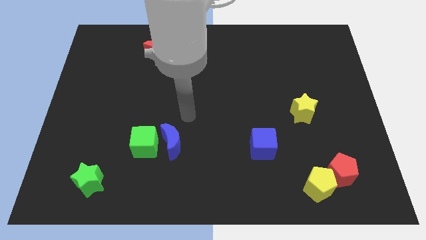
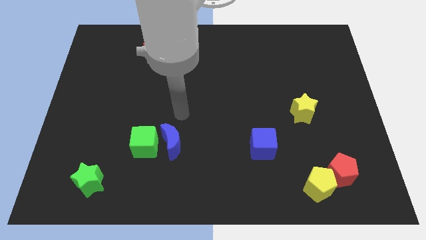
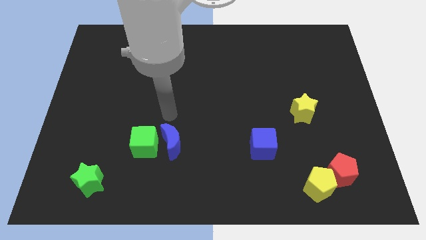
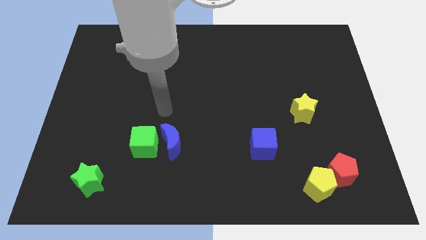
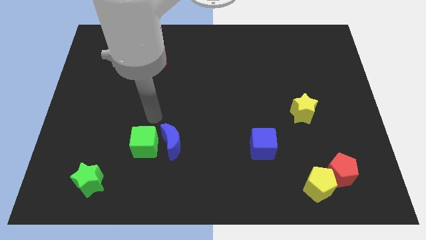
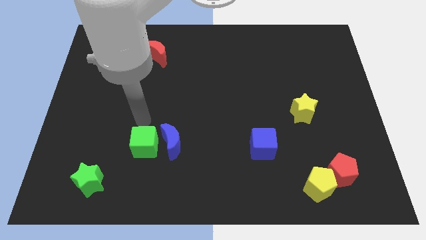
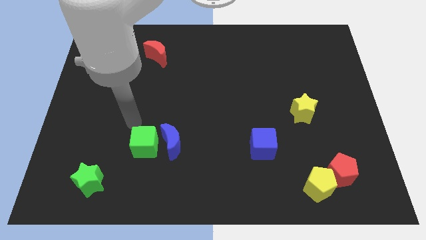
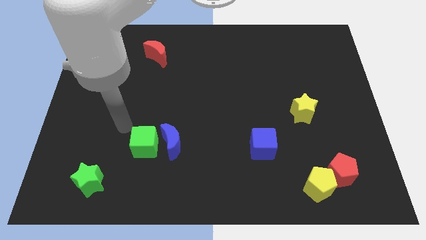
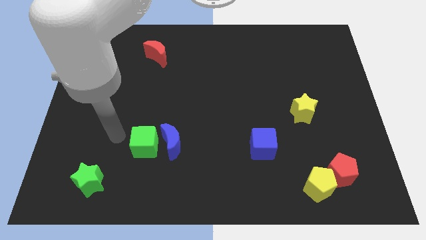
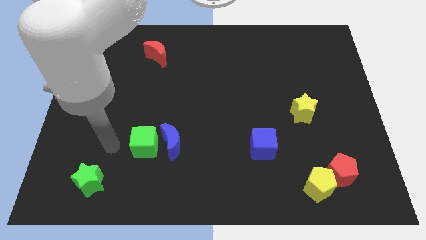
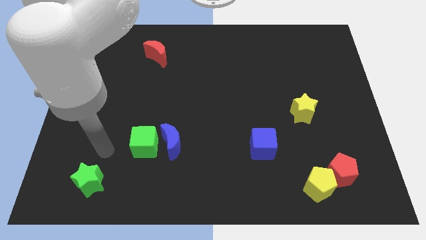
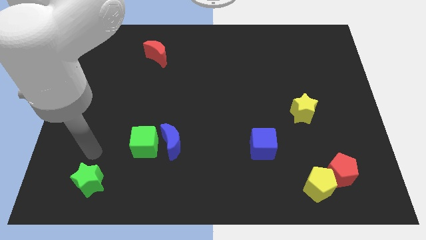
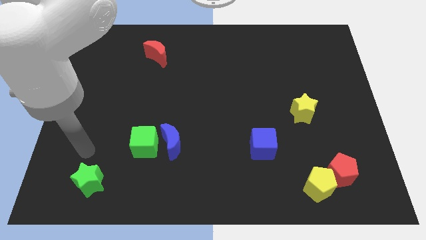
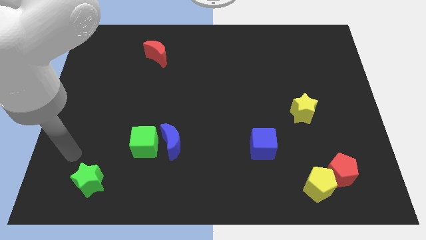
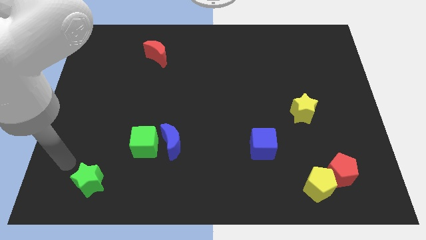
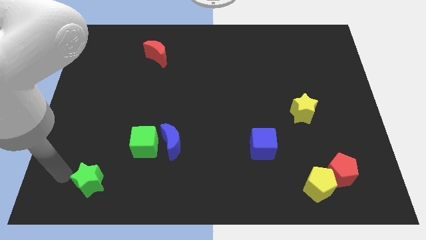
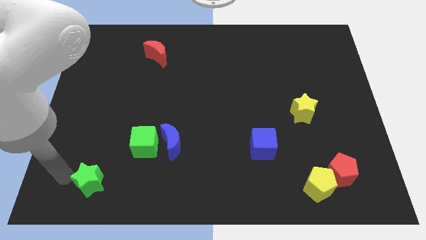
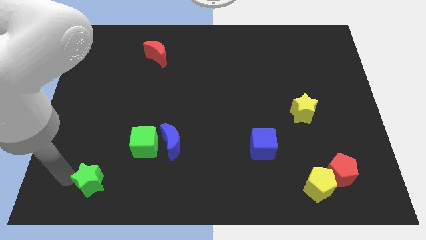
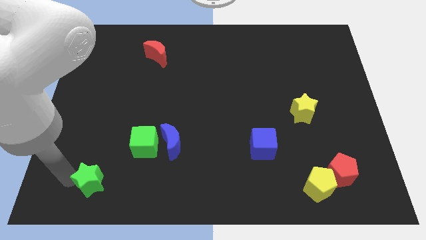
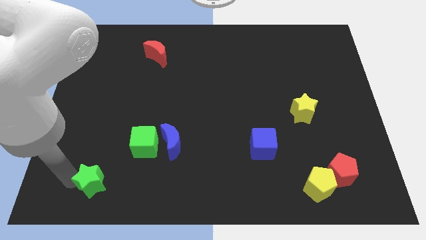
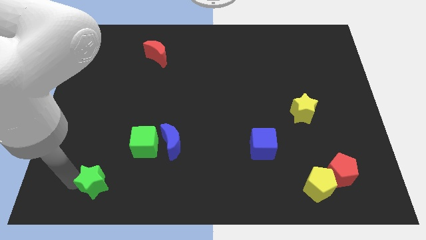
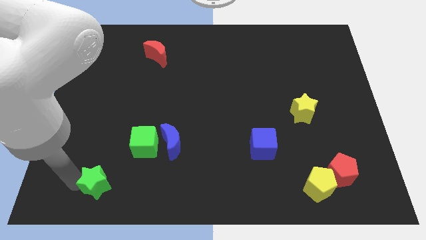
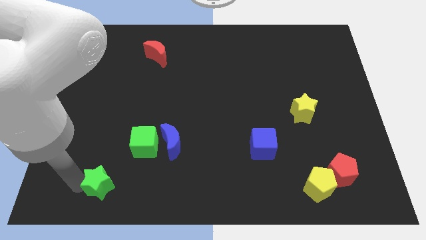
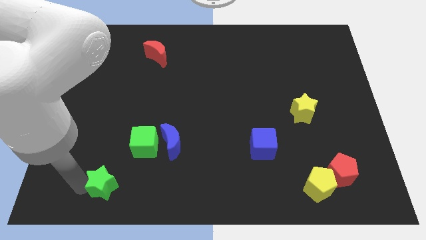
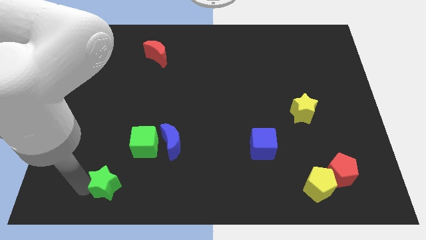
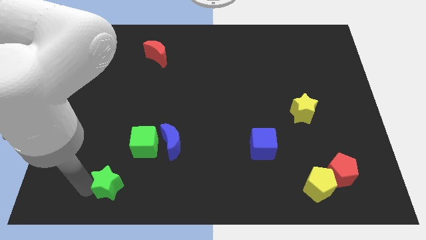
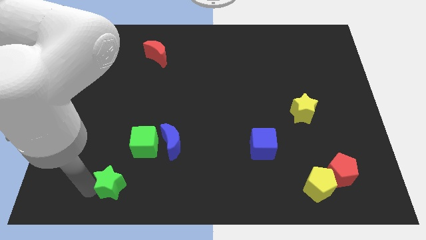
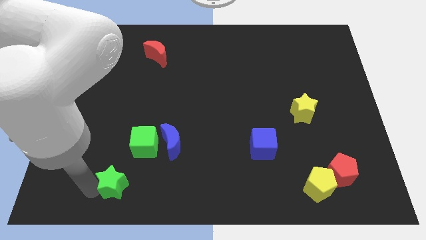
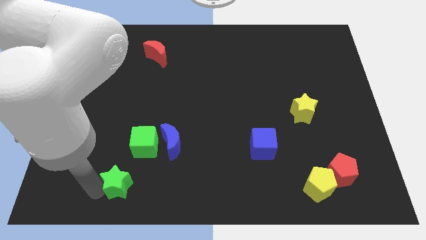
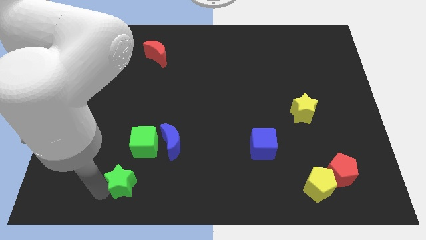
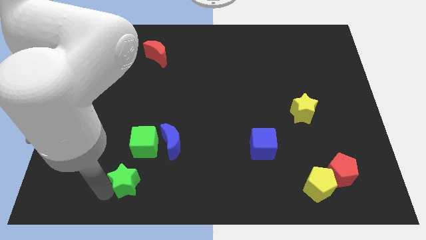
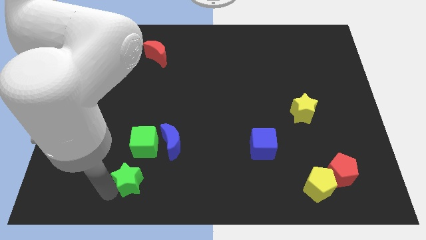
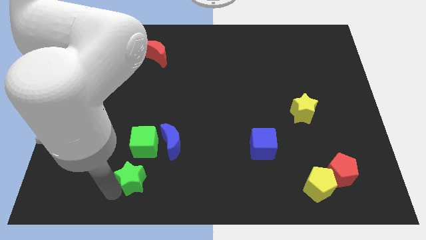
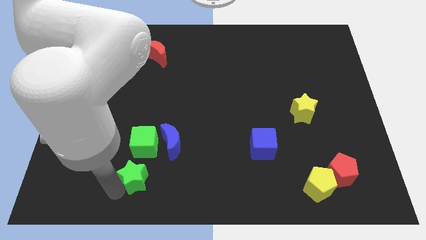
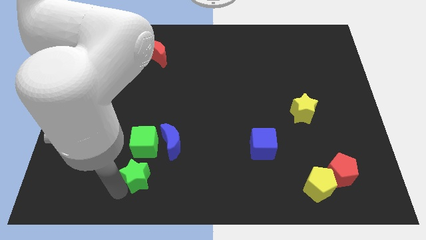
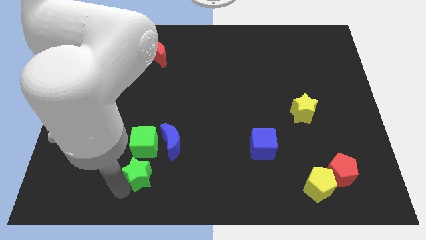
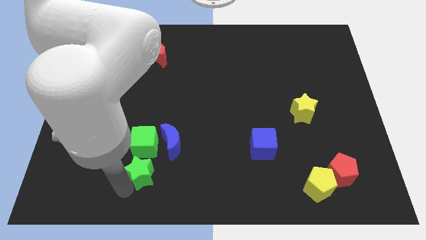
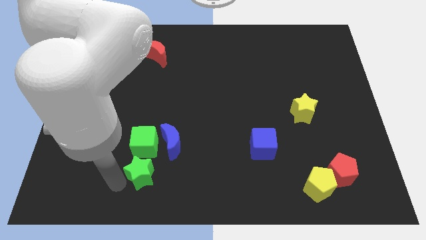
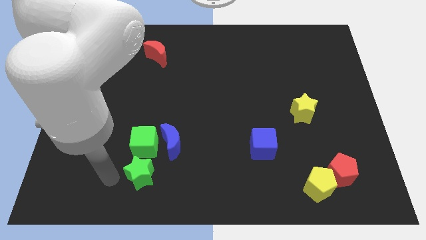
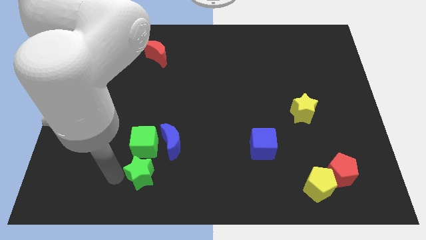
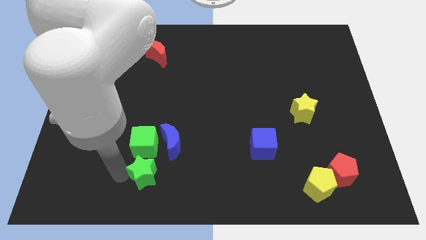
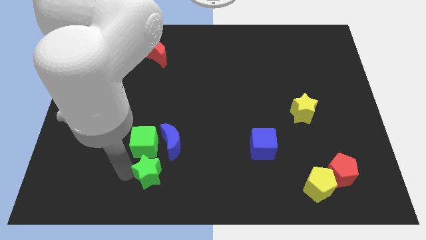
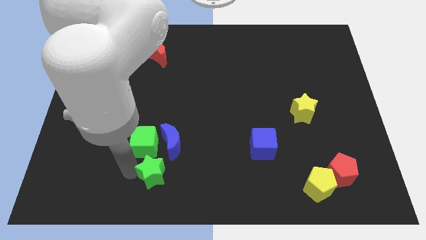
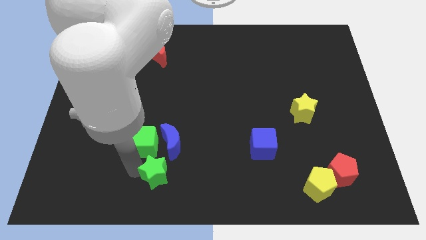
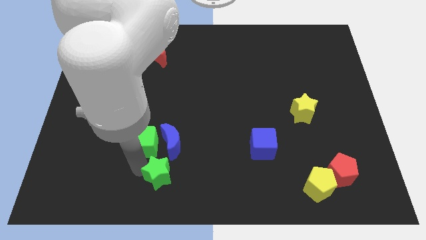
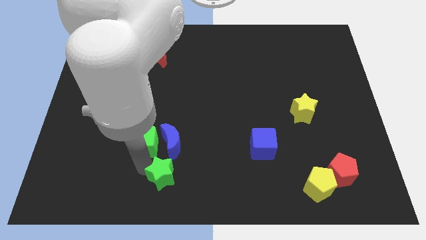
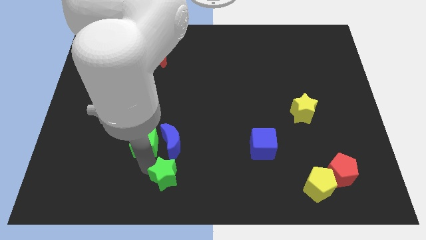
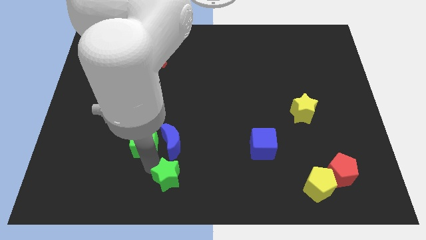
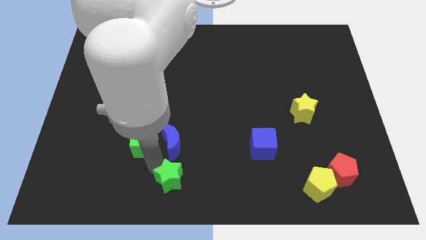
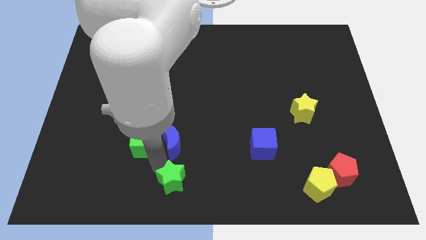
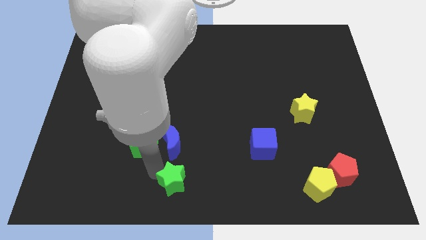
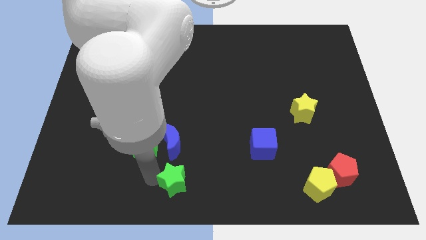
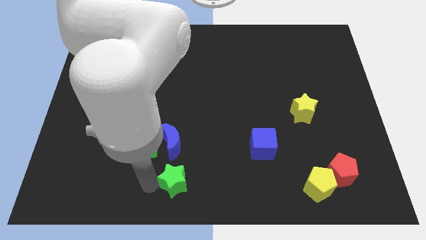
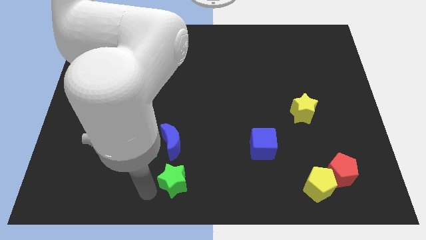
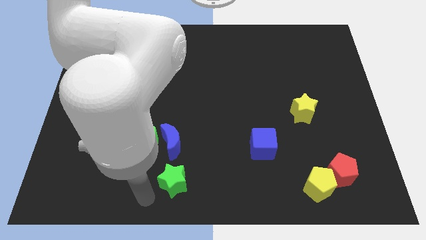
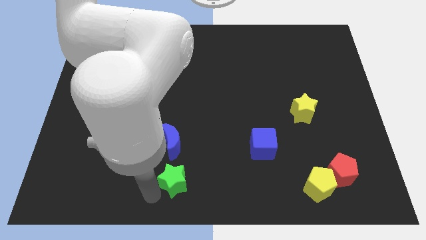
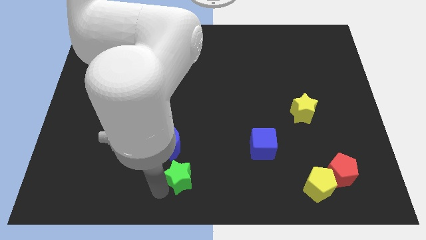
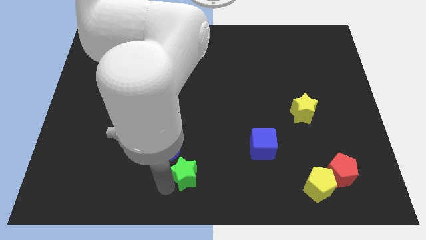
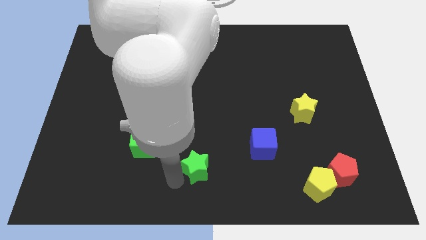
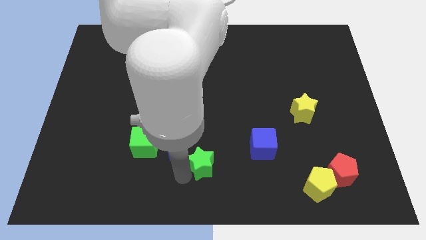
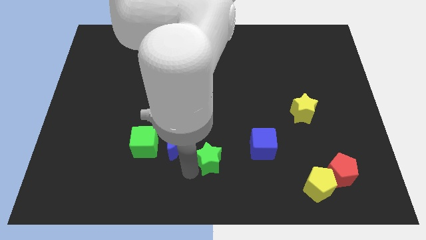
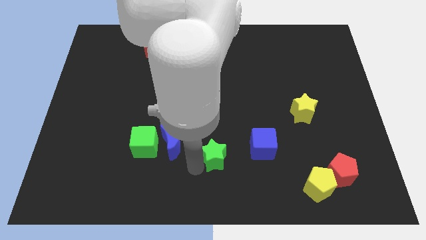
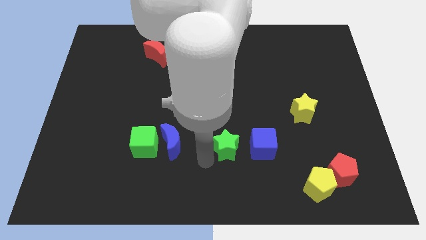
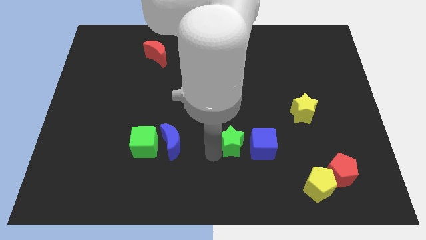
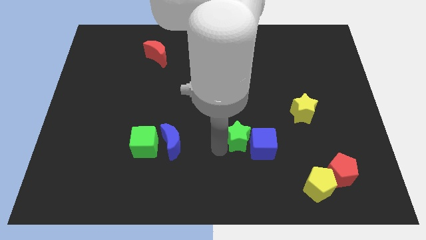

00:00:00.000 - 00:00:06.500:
move the green star to the blue cube

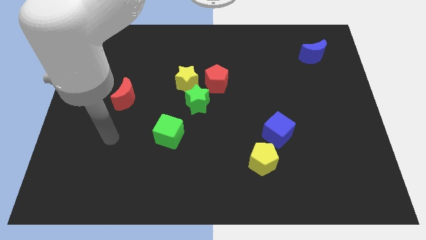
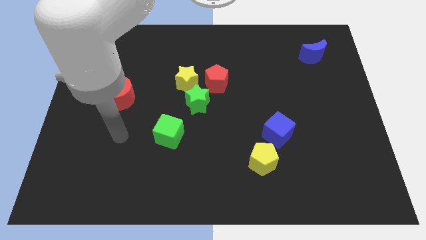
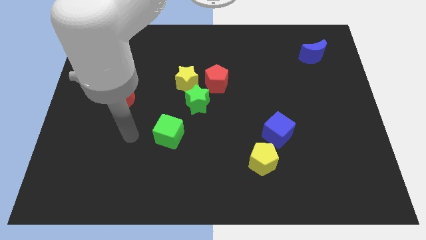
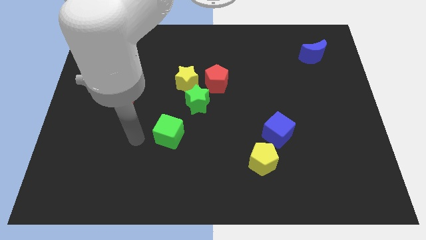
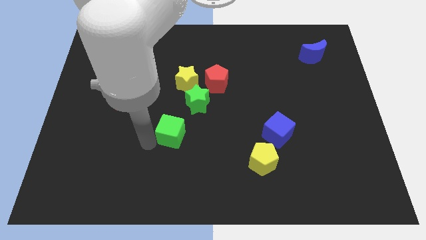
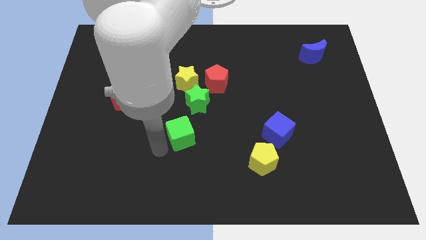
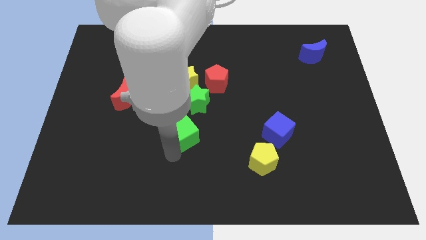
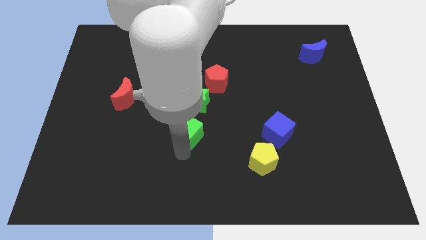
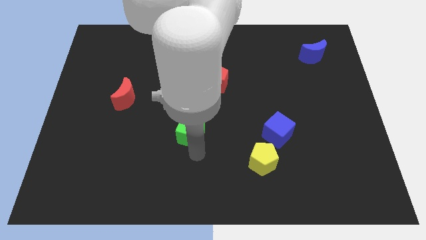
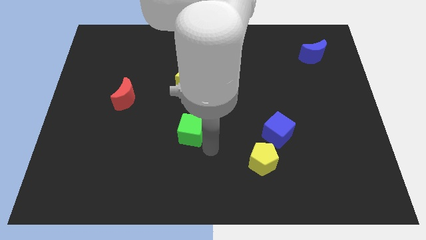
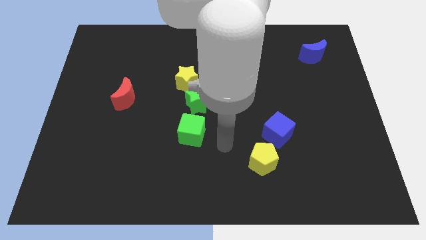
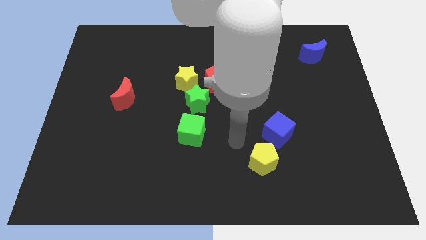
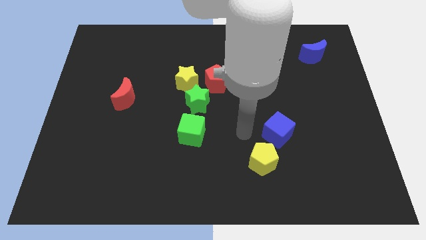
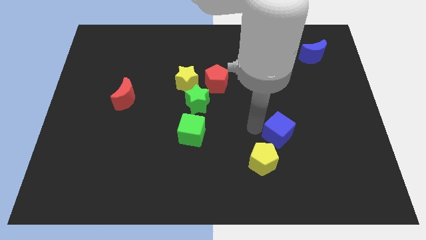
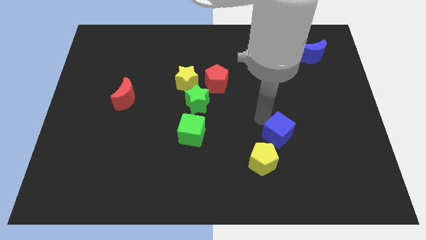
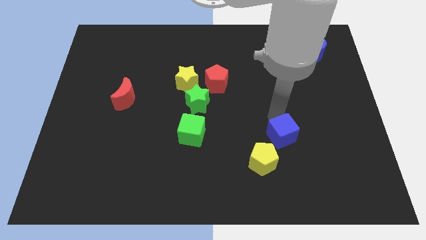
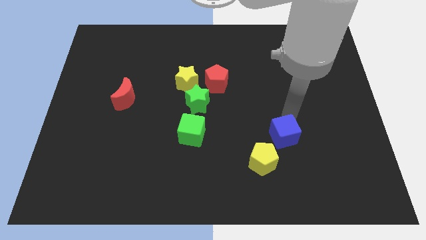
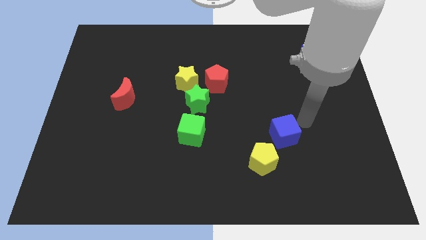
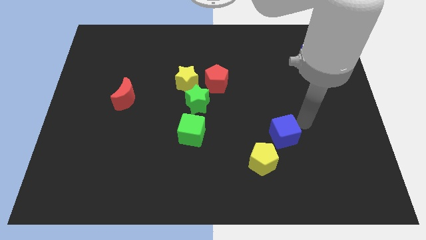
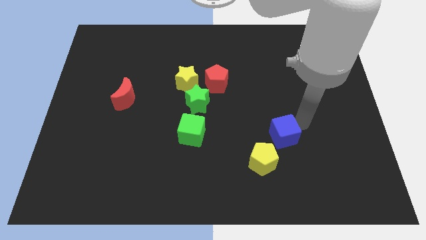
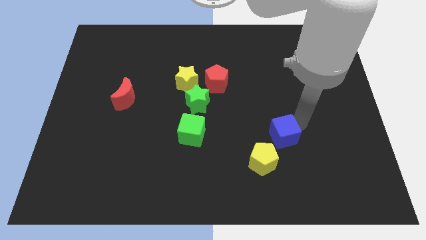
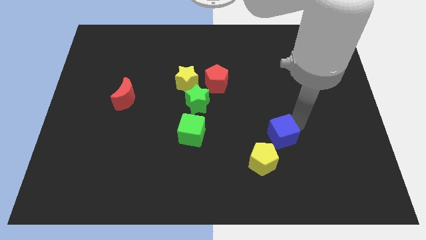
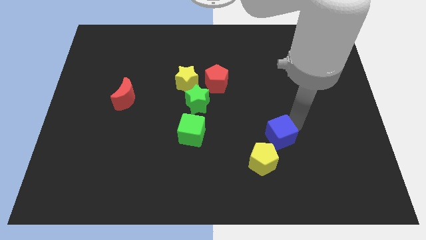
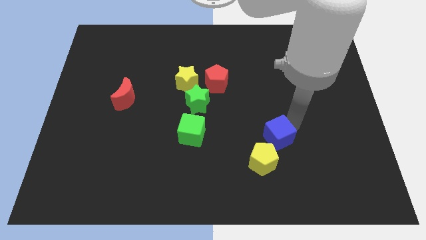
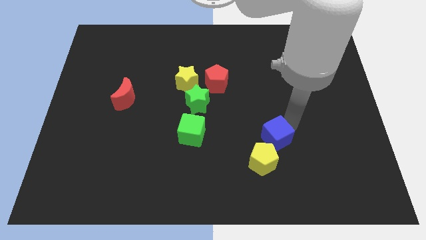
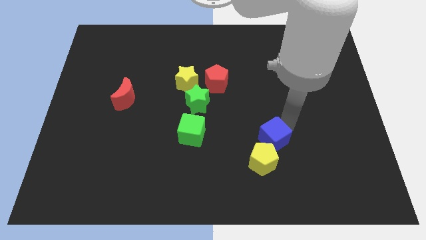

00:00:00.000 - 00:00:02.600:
push the blue cube to the yellow pentagon
